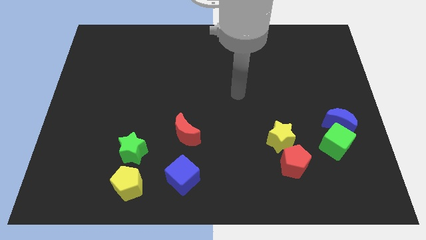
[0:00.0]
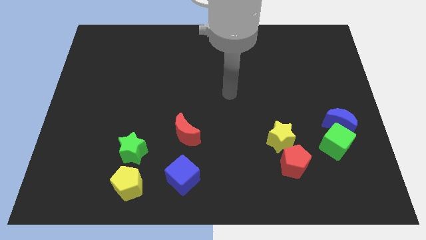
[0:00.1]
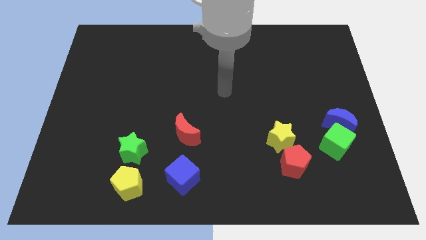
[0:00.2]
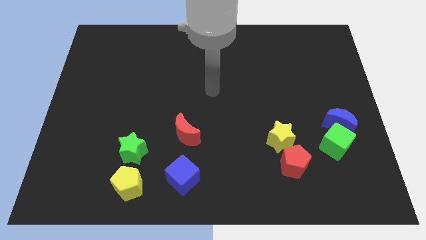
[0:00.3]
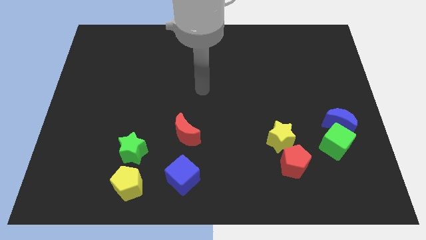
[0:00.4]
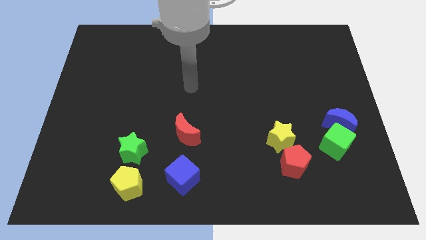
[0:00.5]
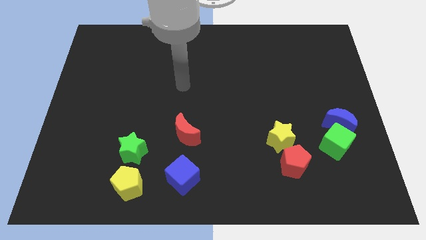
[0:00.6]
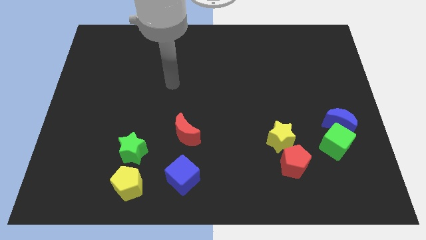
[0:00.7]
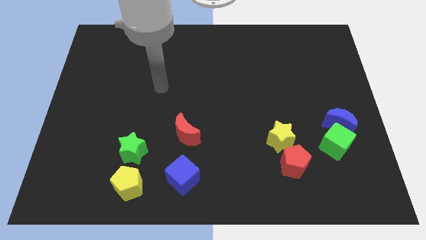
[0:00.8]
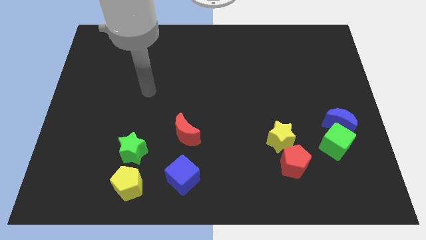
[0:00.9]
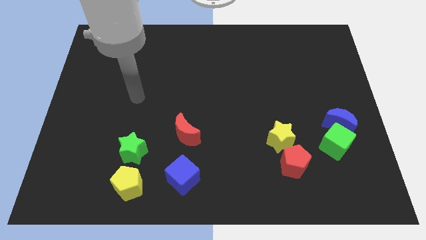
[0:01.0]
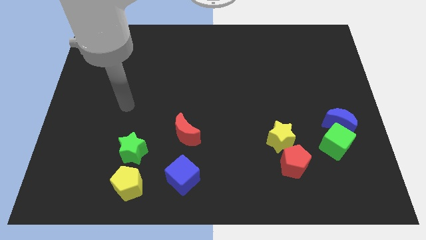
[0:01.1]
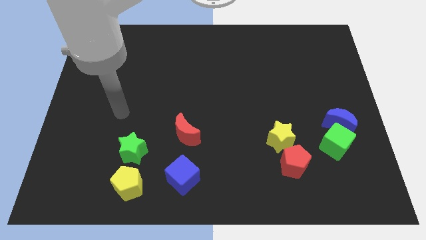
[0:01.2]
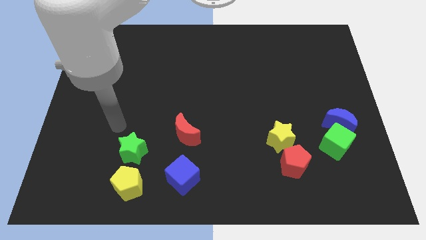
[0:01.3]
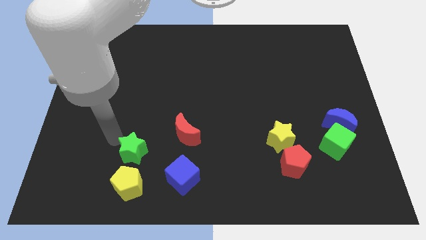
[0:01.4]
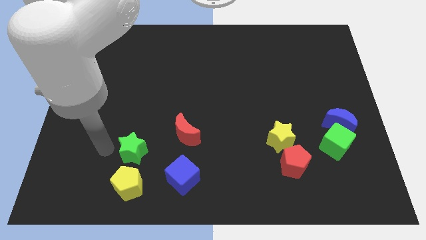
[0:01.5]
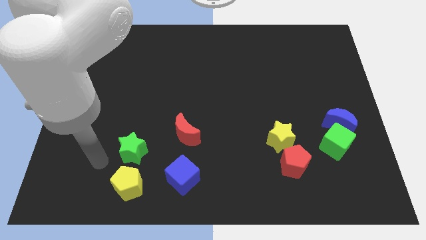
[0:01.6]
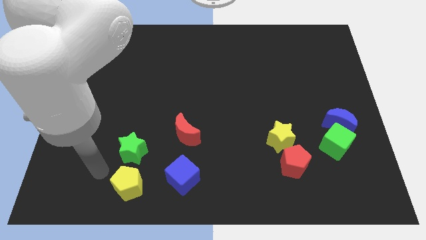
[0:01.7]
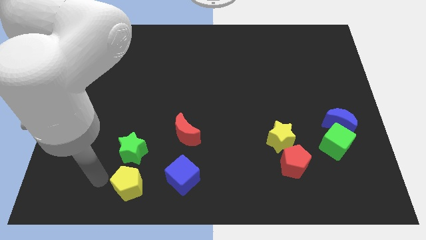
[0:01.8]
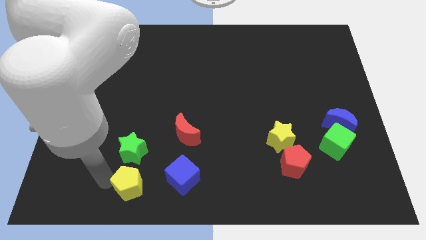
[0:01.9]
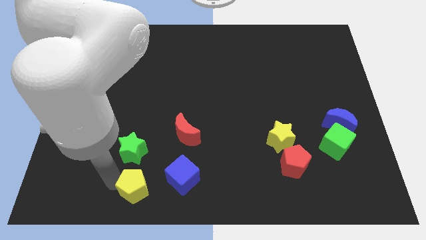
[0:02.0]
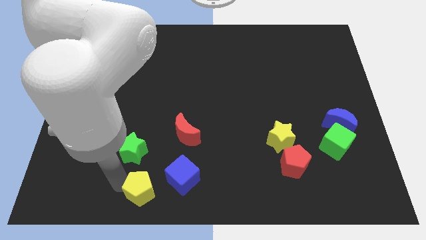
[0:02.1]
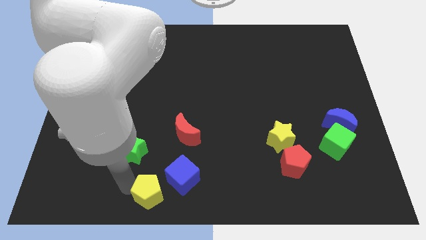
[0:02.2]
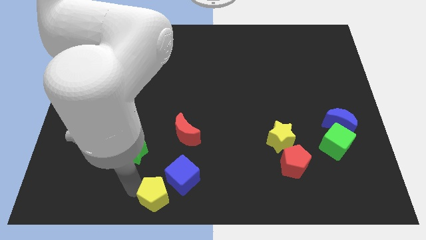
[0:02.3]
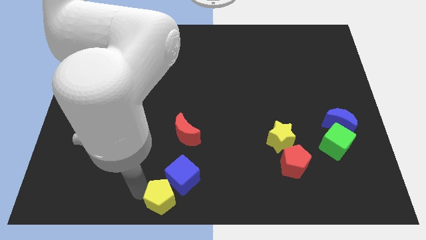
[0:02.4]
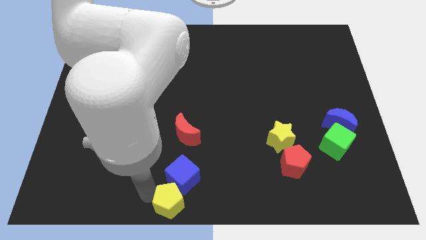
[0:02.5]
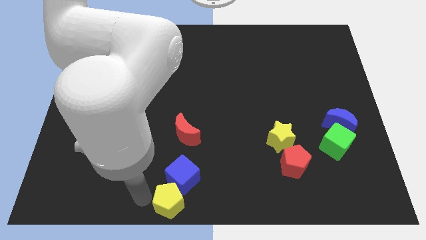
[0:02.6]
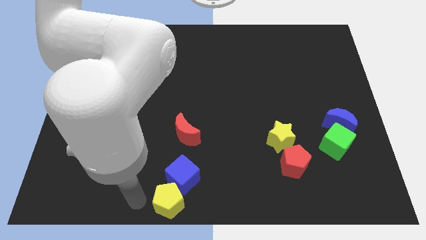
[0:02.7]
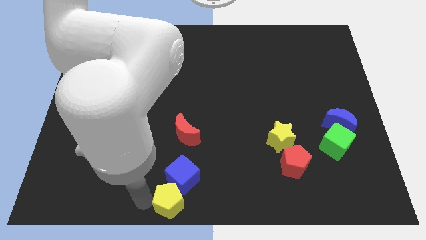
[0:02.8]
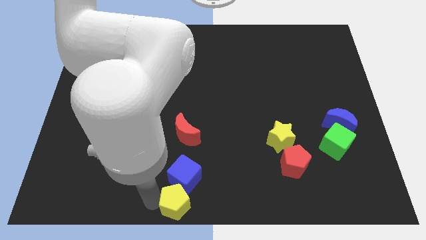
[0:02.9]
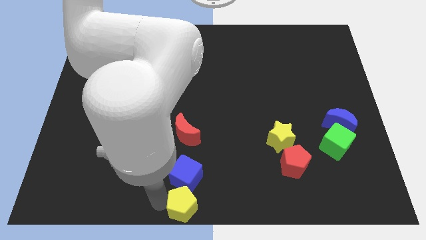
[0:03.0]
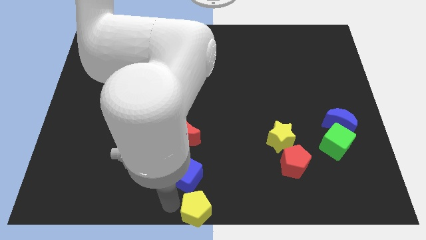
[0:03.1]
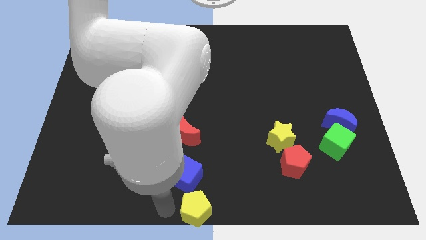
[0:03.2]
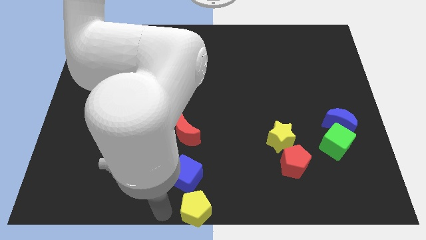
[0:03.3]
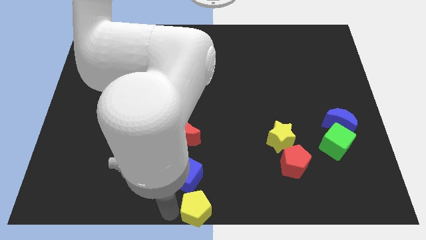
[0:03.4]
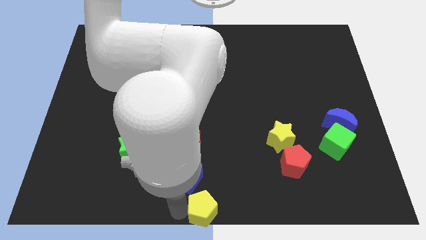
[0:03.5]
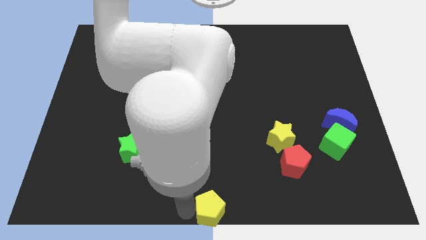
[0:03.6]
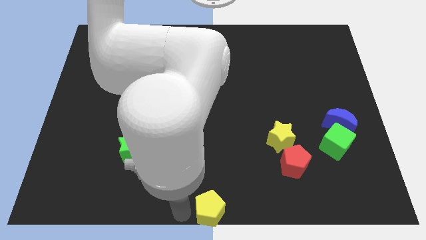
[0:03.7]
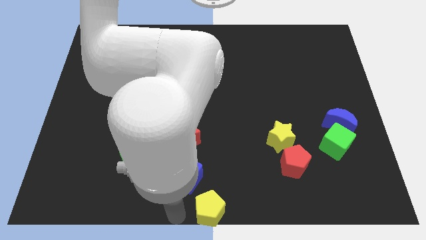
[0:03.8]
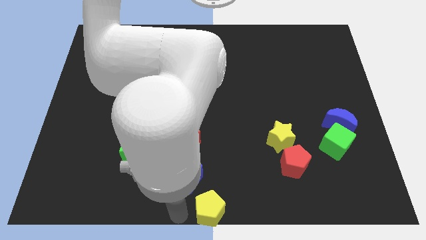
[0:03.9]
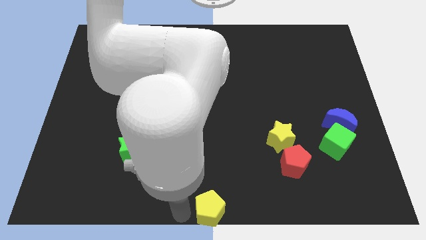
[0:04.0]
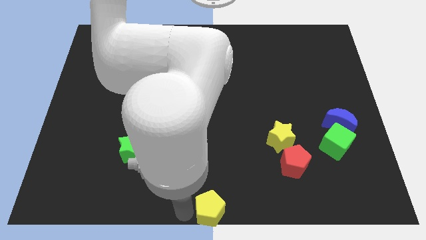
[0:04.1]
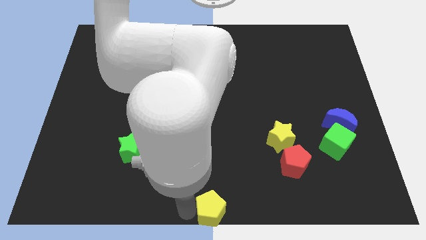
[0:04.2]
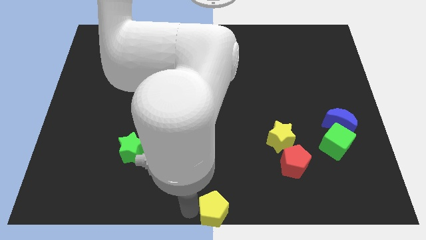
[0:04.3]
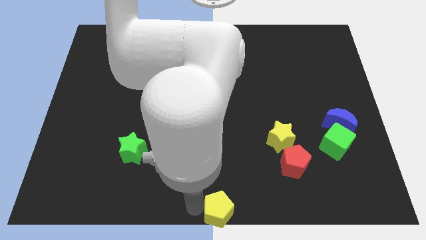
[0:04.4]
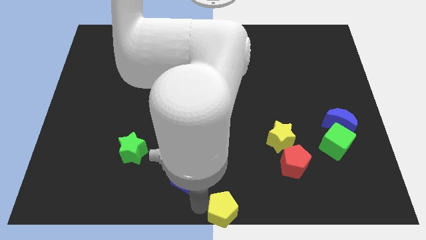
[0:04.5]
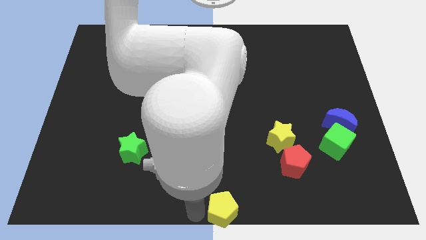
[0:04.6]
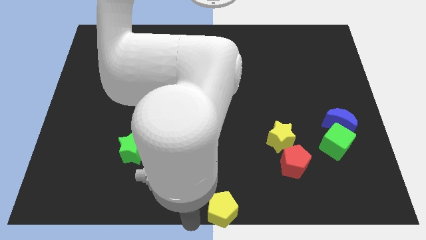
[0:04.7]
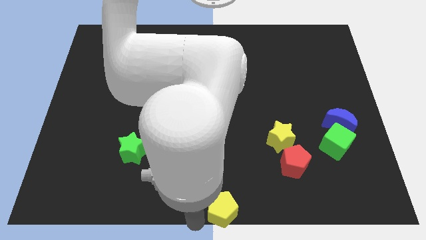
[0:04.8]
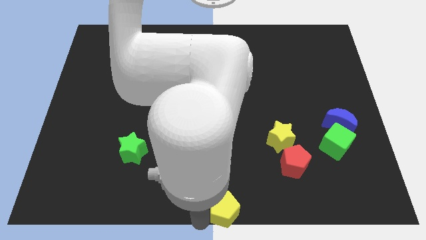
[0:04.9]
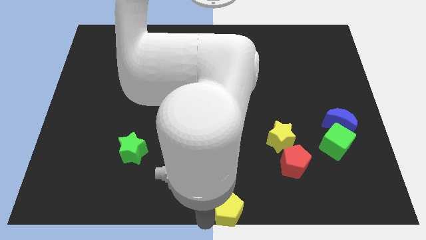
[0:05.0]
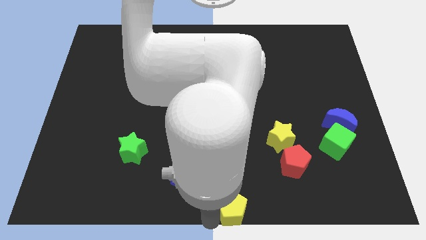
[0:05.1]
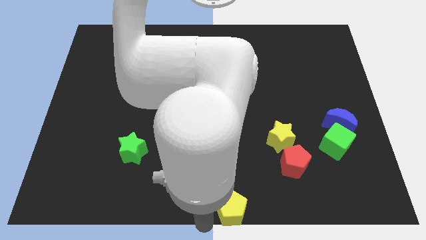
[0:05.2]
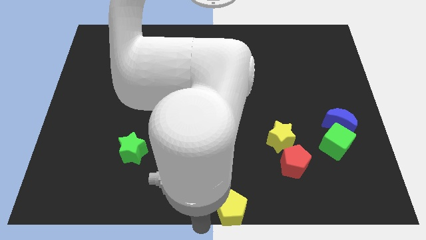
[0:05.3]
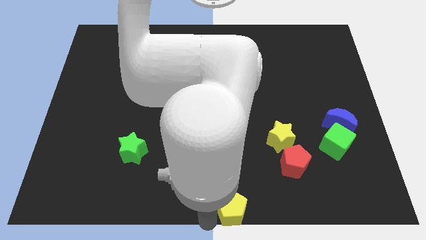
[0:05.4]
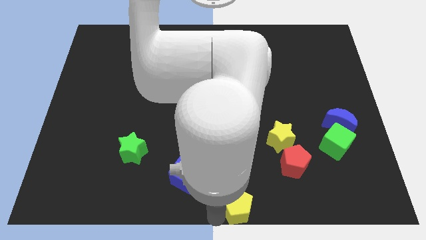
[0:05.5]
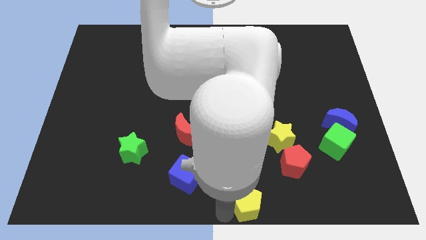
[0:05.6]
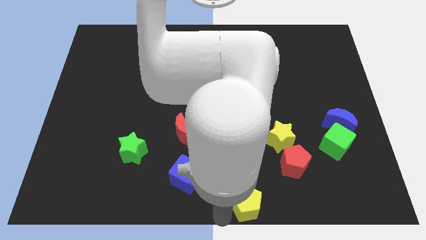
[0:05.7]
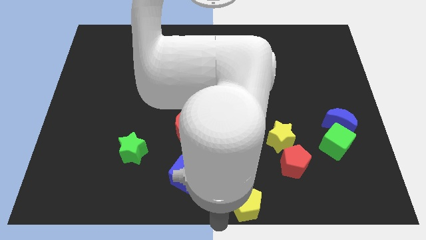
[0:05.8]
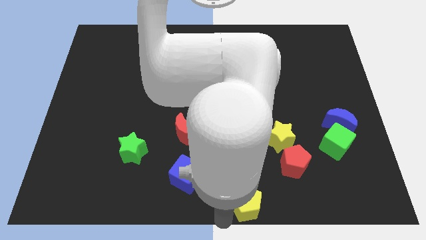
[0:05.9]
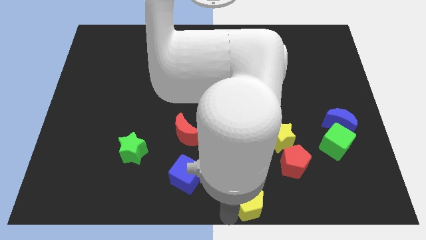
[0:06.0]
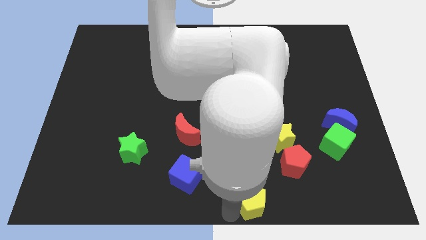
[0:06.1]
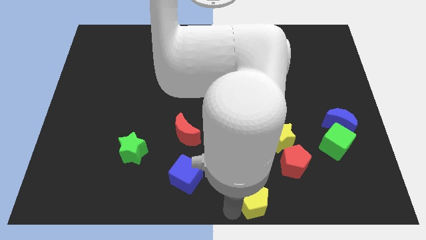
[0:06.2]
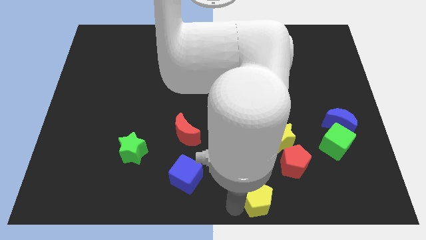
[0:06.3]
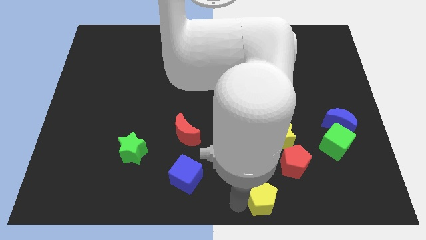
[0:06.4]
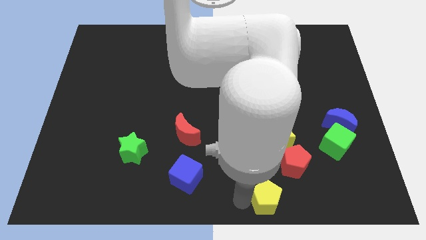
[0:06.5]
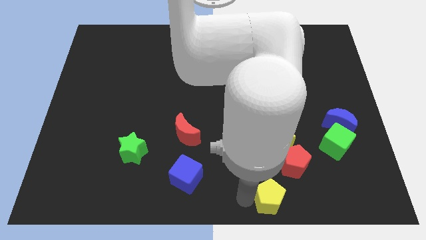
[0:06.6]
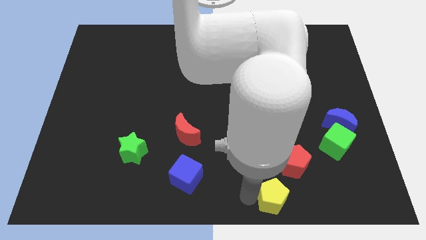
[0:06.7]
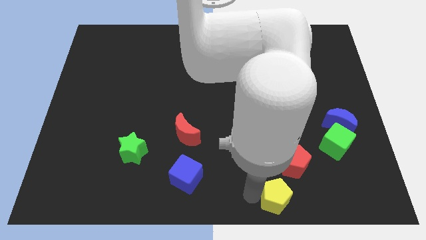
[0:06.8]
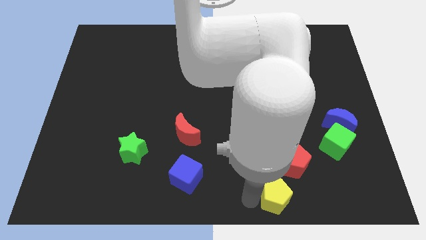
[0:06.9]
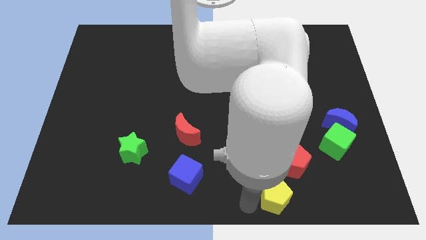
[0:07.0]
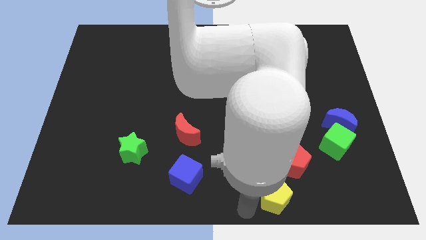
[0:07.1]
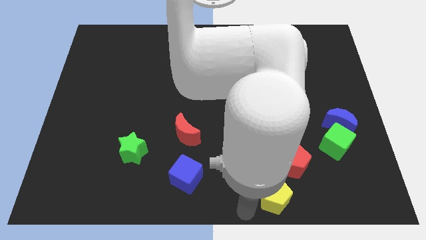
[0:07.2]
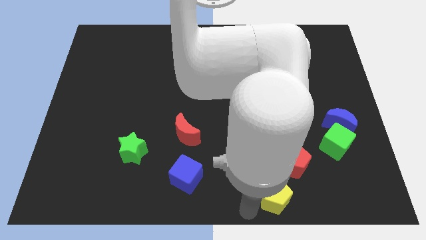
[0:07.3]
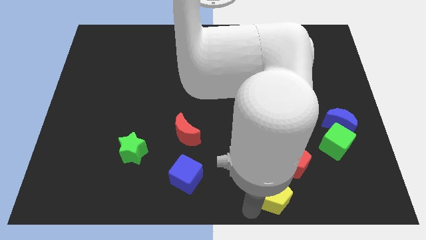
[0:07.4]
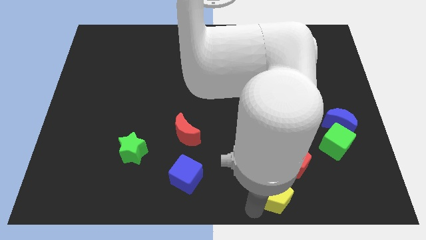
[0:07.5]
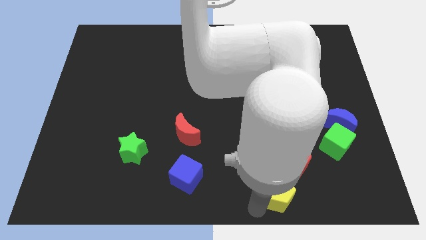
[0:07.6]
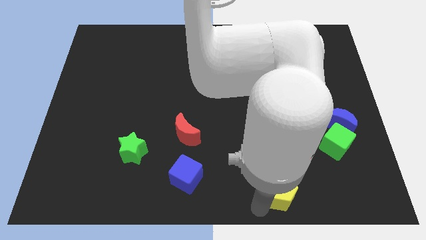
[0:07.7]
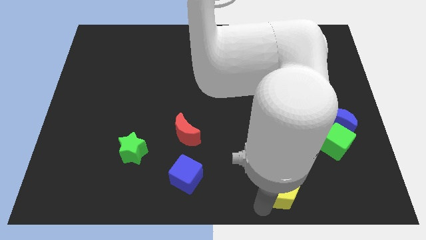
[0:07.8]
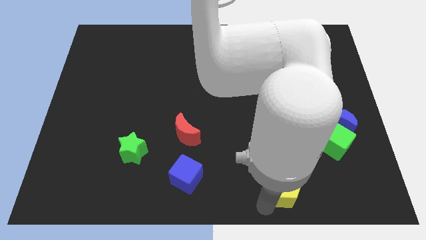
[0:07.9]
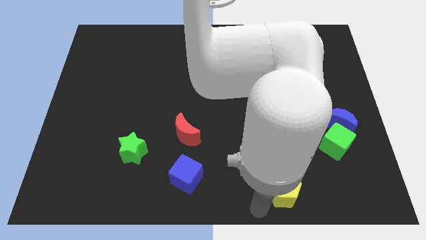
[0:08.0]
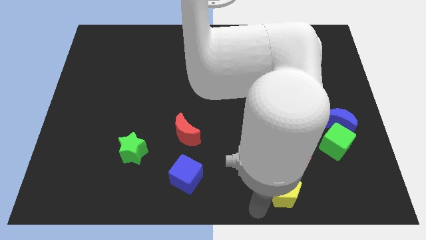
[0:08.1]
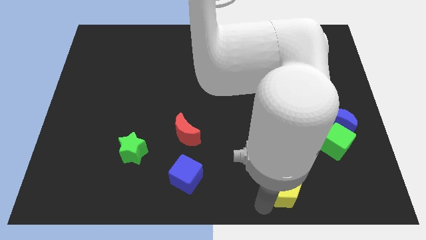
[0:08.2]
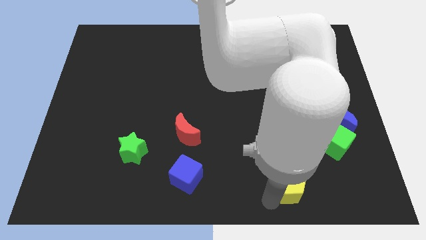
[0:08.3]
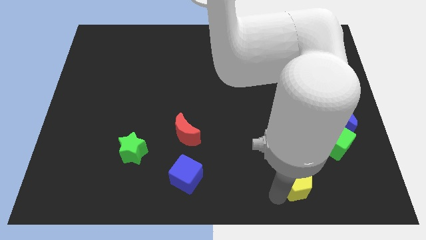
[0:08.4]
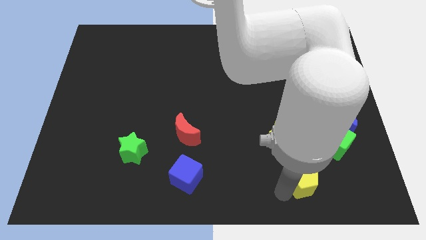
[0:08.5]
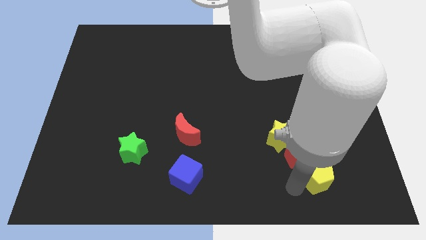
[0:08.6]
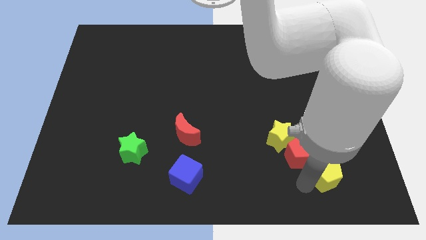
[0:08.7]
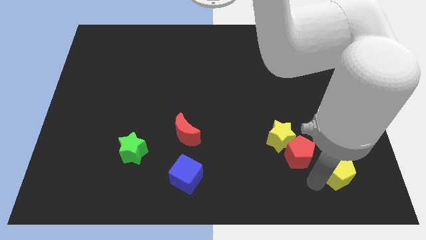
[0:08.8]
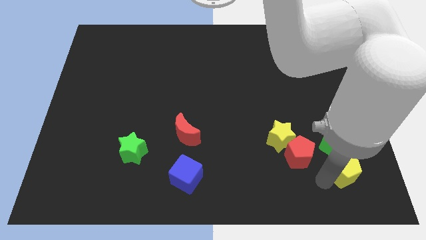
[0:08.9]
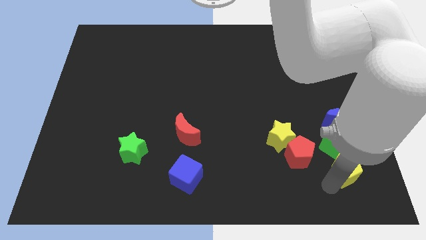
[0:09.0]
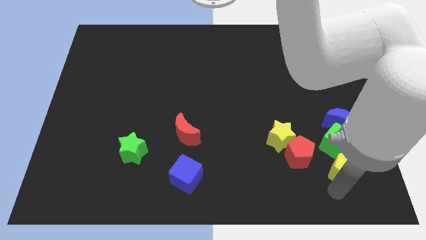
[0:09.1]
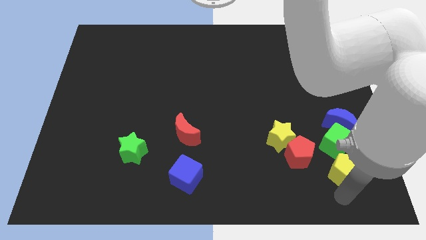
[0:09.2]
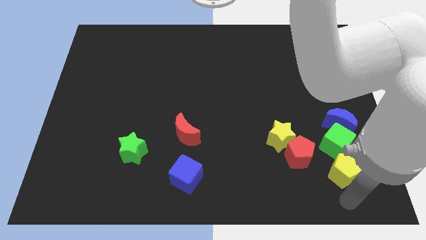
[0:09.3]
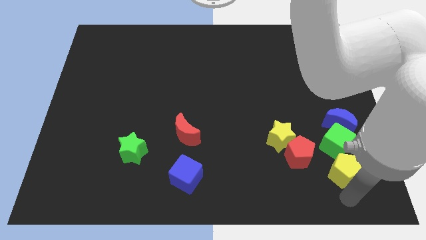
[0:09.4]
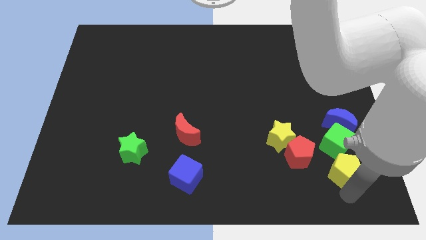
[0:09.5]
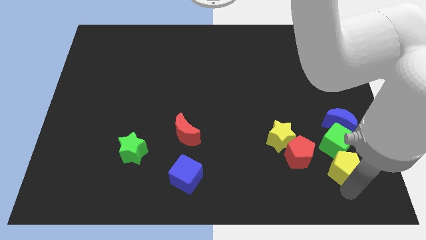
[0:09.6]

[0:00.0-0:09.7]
push the yellow pentagon to the green cube
